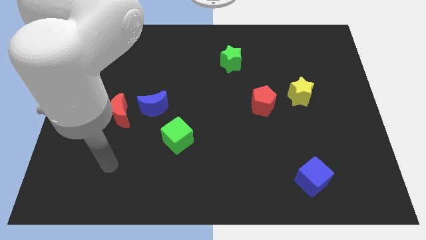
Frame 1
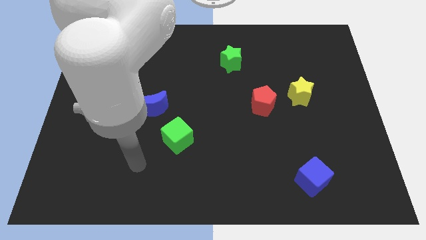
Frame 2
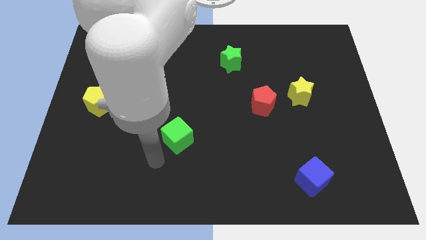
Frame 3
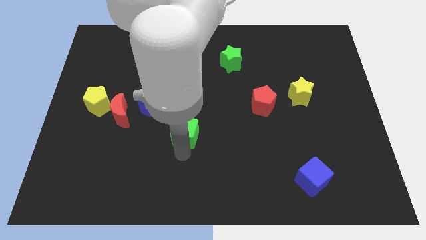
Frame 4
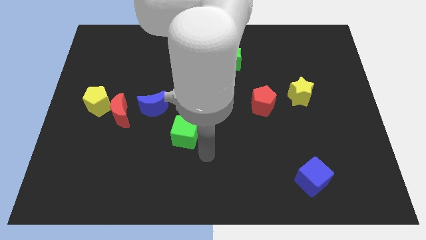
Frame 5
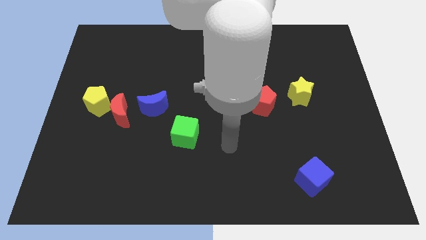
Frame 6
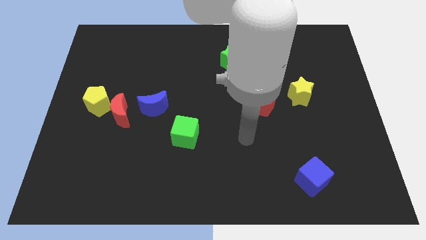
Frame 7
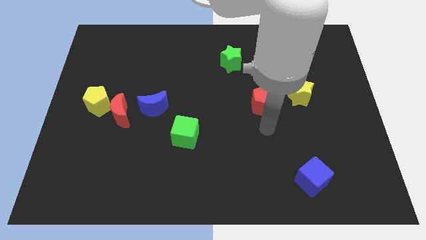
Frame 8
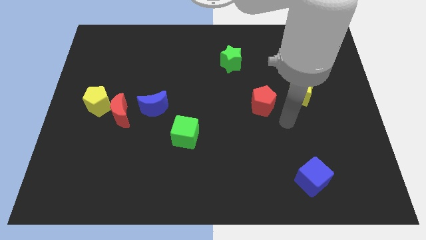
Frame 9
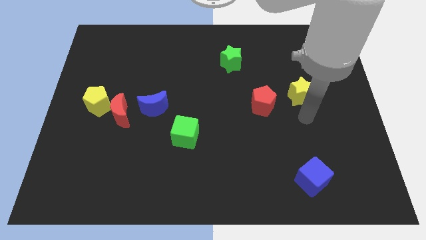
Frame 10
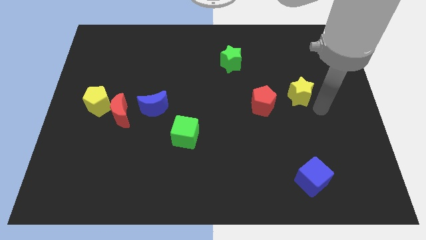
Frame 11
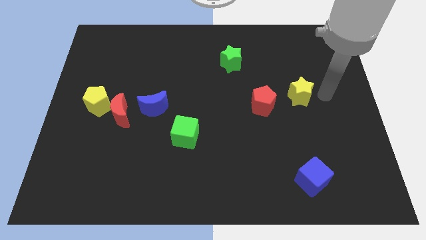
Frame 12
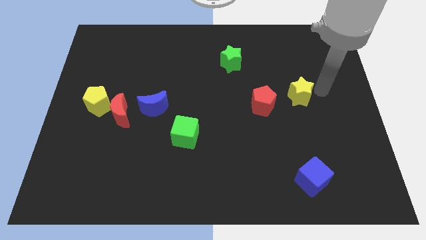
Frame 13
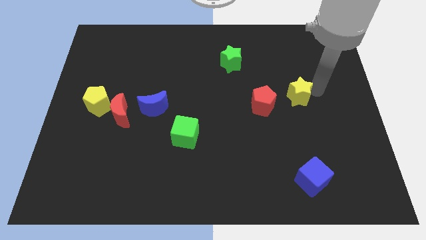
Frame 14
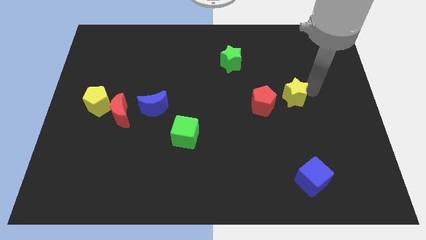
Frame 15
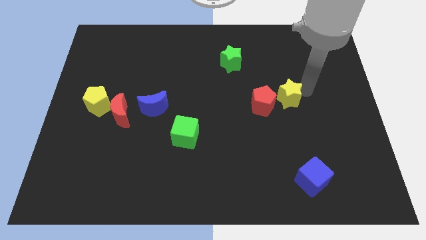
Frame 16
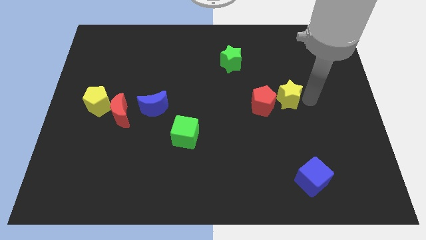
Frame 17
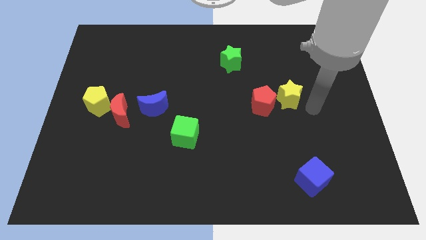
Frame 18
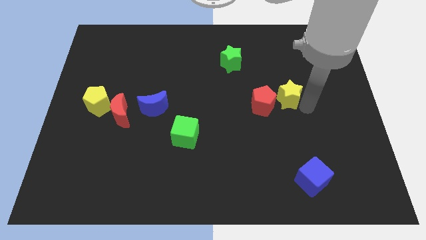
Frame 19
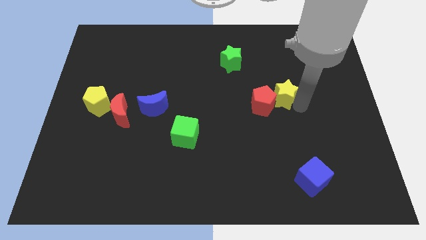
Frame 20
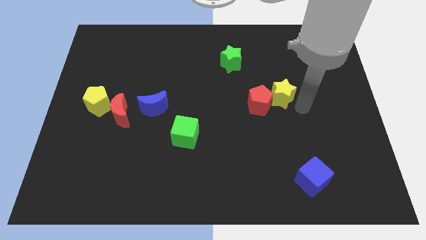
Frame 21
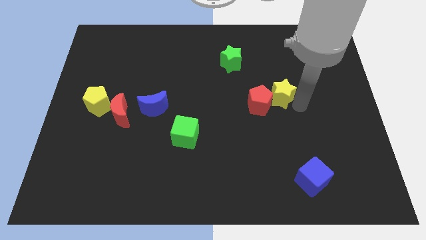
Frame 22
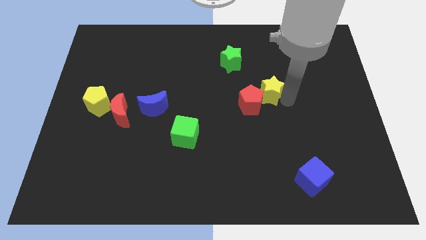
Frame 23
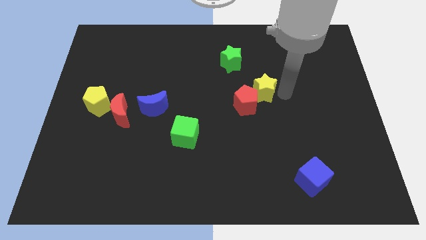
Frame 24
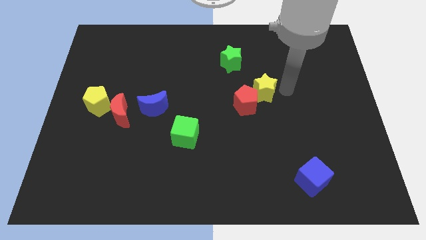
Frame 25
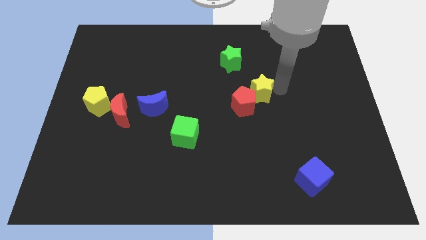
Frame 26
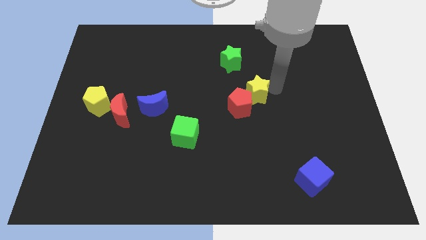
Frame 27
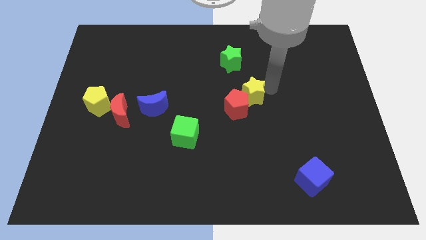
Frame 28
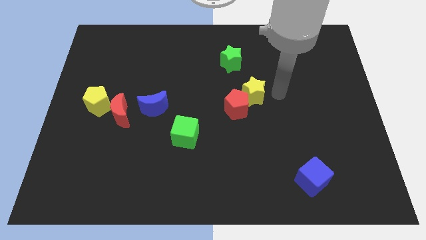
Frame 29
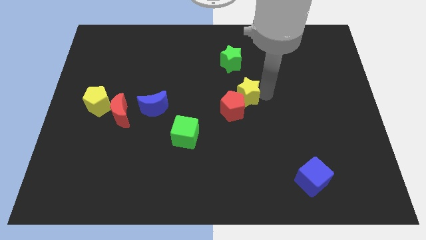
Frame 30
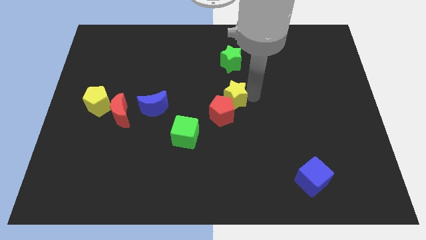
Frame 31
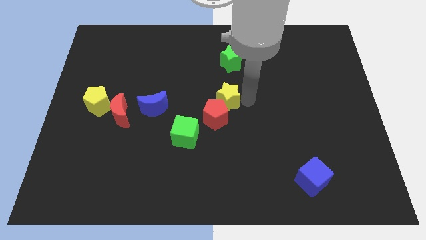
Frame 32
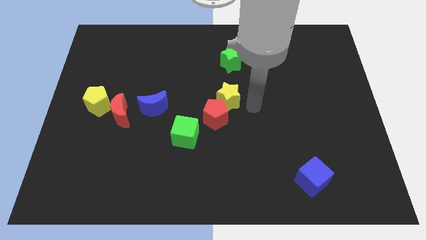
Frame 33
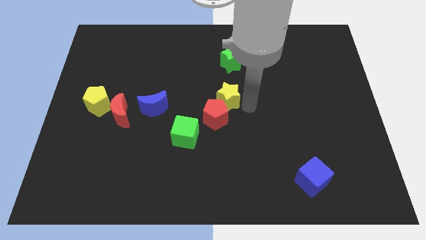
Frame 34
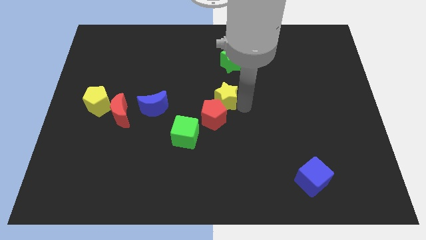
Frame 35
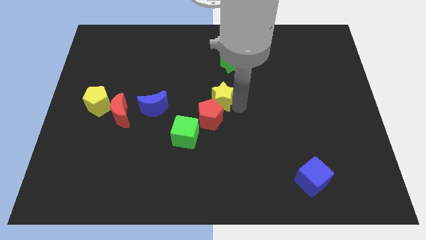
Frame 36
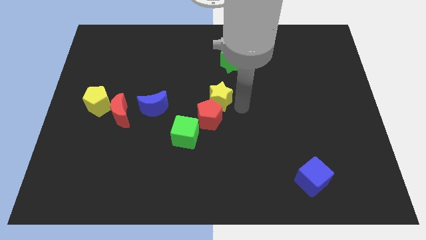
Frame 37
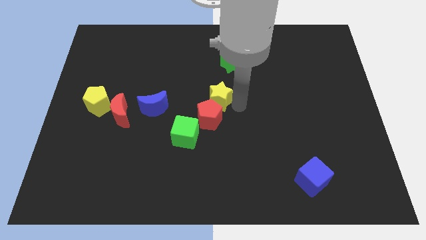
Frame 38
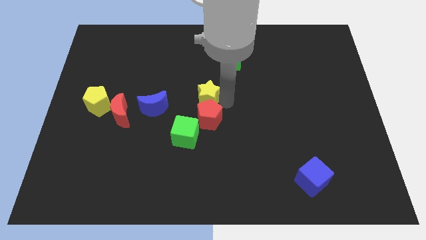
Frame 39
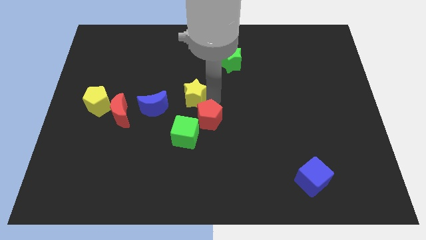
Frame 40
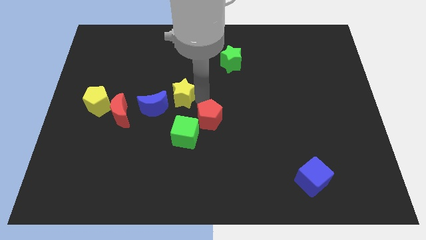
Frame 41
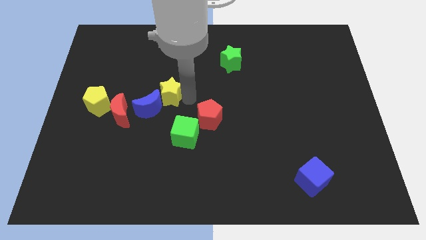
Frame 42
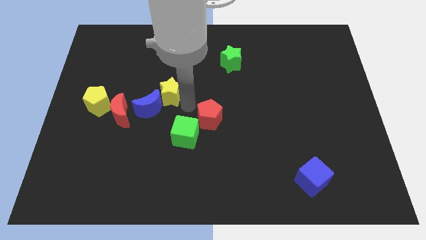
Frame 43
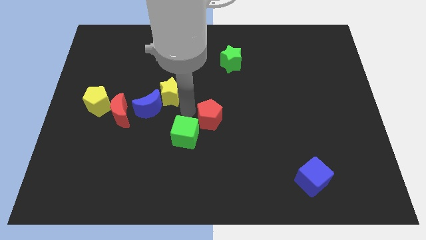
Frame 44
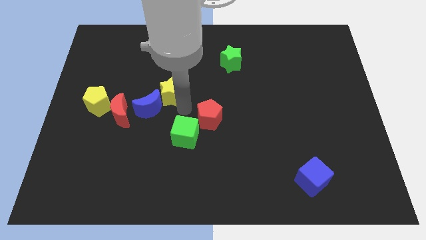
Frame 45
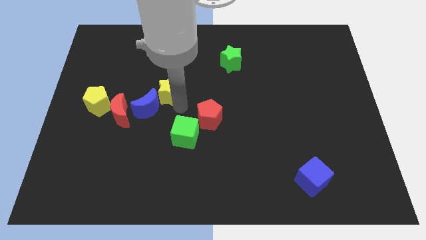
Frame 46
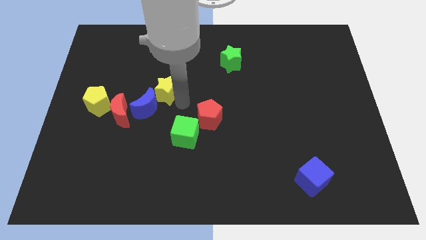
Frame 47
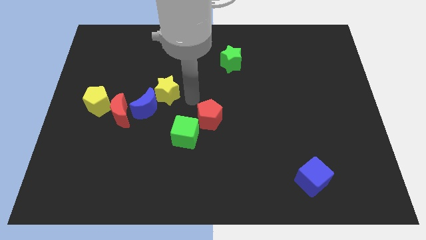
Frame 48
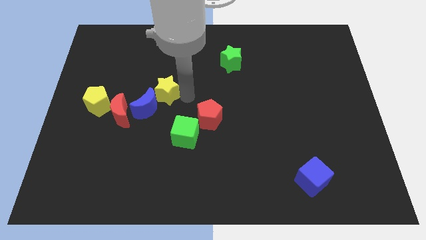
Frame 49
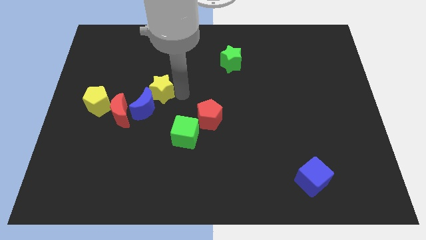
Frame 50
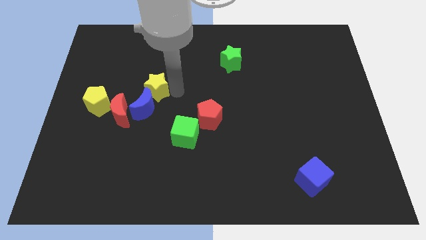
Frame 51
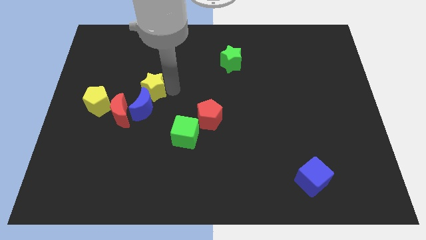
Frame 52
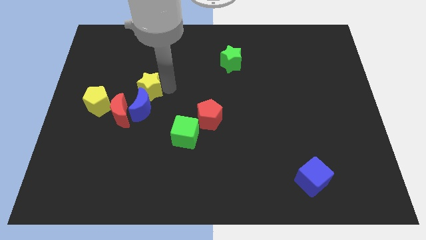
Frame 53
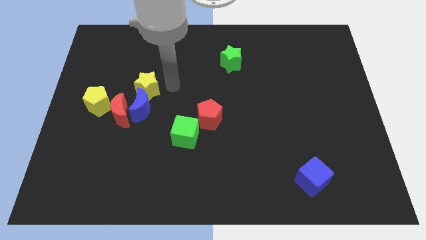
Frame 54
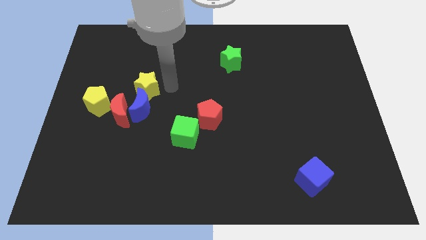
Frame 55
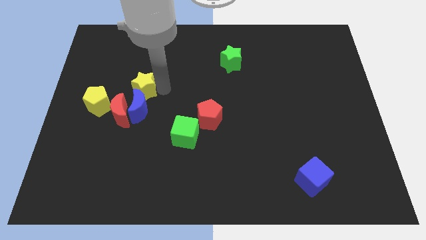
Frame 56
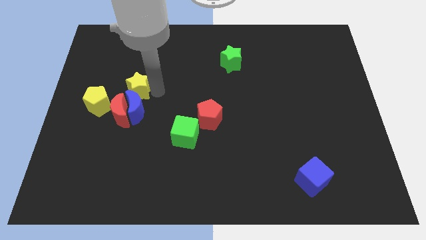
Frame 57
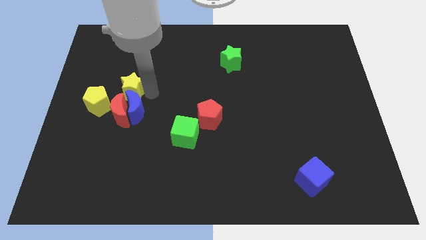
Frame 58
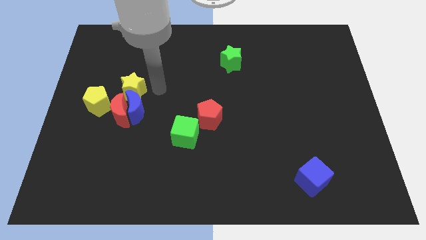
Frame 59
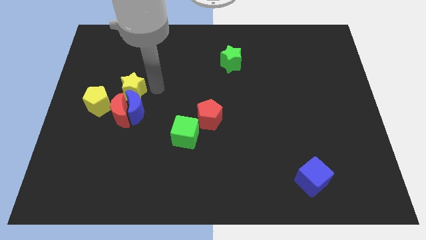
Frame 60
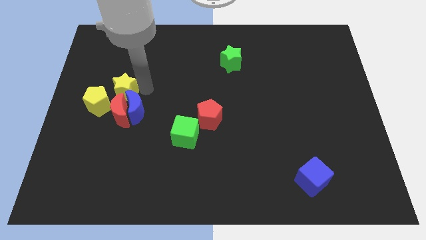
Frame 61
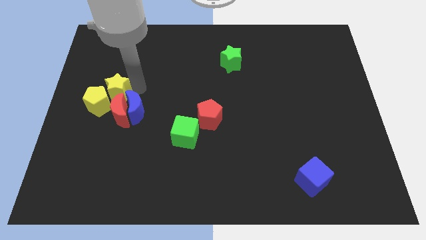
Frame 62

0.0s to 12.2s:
move the yellow star next to the yellow pentagon
